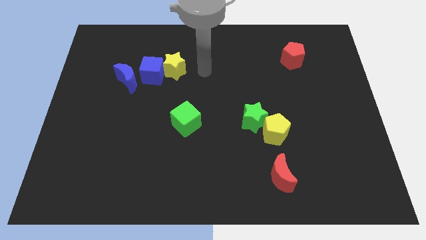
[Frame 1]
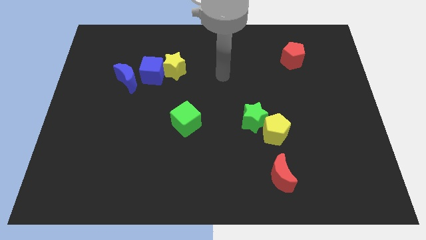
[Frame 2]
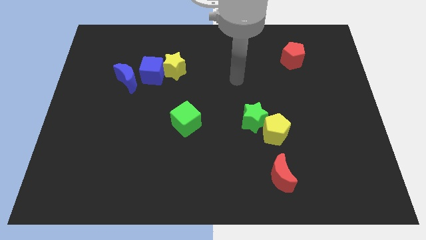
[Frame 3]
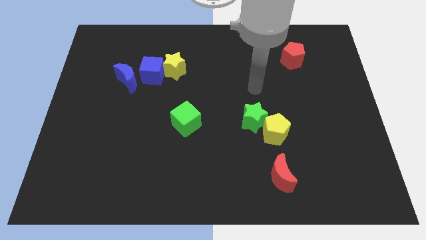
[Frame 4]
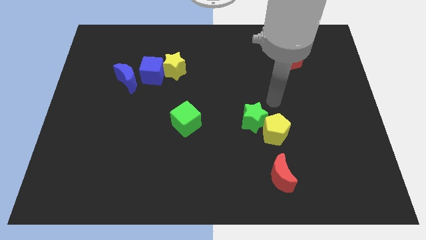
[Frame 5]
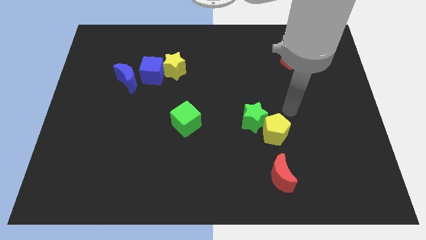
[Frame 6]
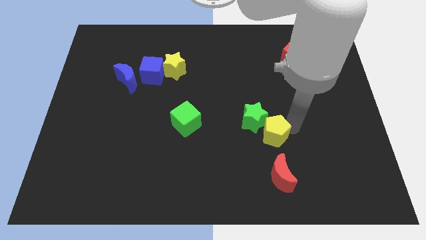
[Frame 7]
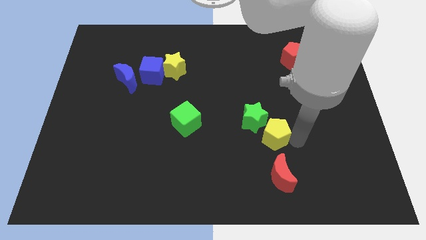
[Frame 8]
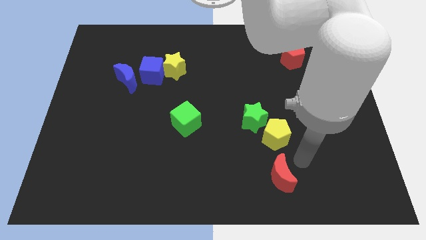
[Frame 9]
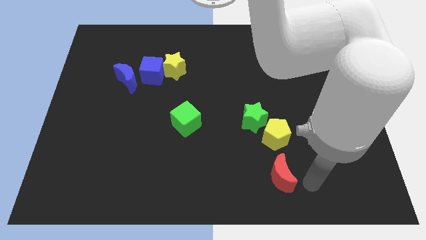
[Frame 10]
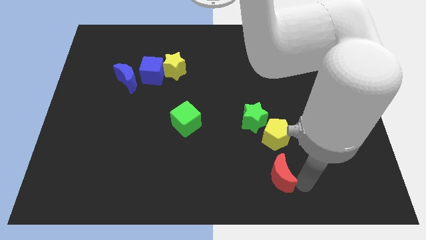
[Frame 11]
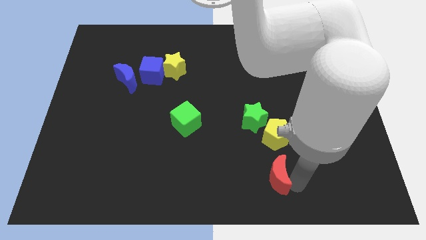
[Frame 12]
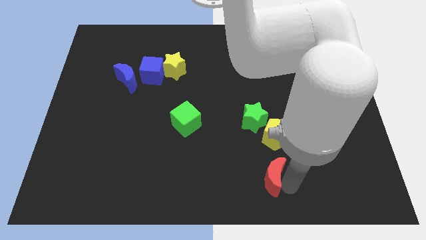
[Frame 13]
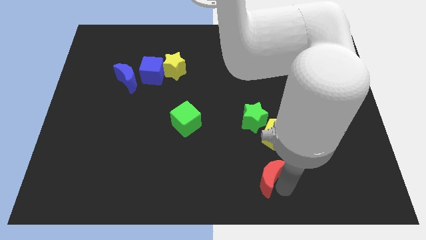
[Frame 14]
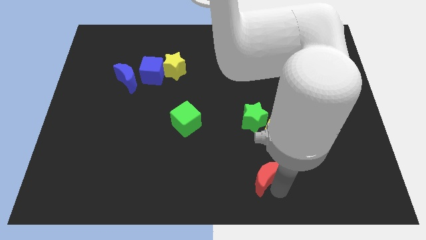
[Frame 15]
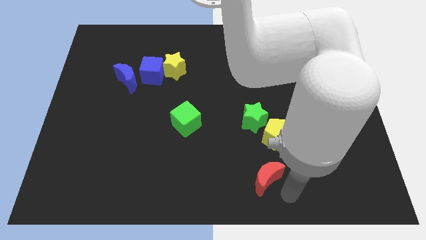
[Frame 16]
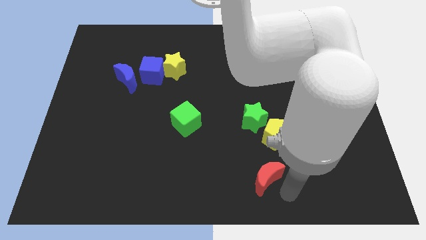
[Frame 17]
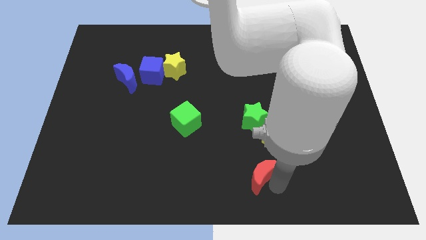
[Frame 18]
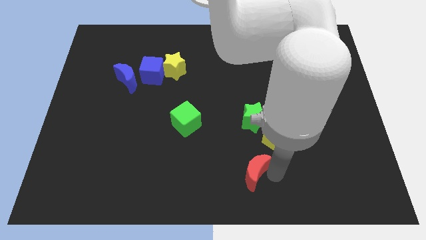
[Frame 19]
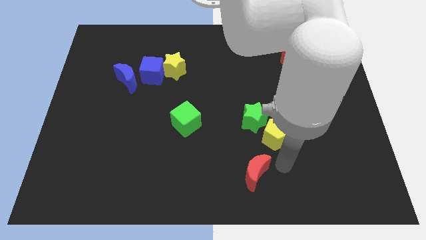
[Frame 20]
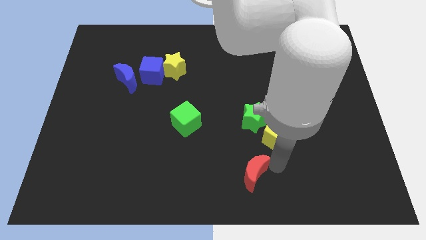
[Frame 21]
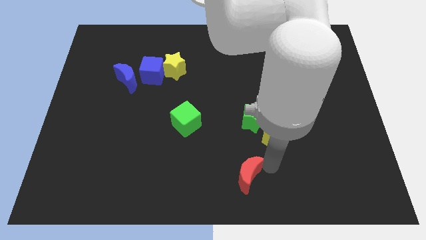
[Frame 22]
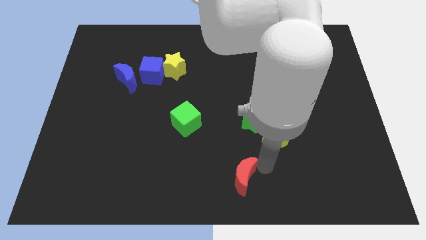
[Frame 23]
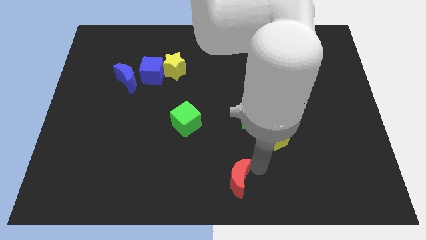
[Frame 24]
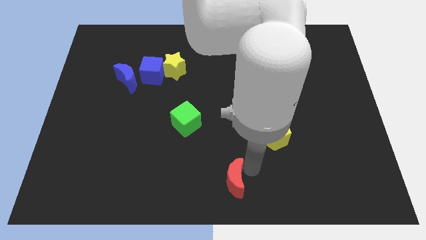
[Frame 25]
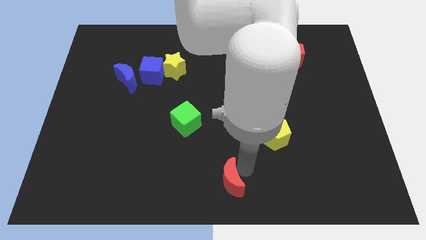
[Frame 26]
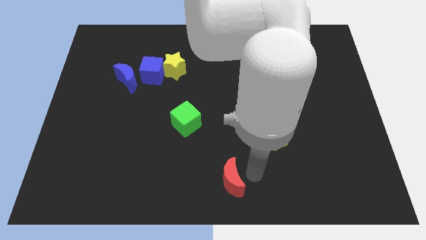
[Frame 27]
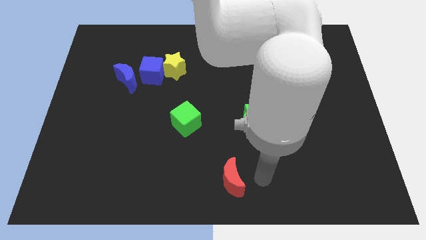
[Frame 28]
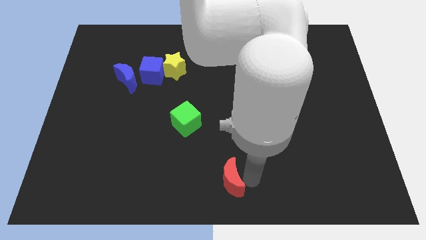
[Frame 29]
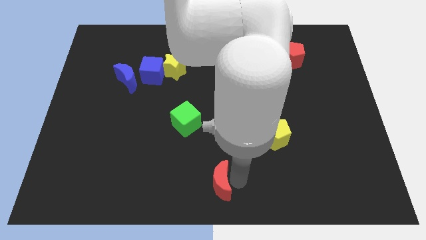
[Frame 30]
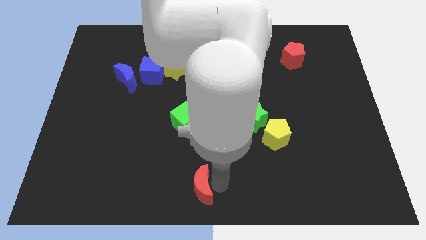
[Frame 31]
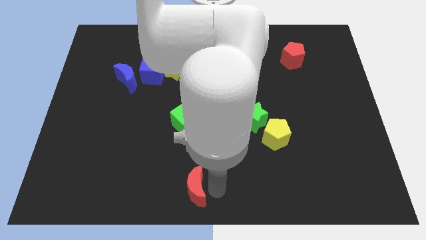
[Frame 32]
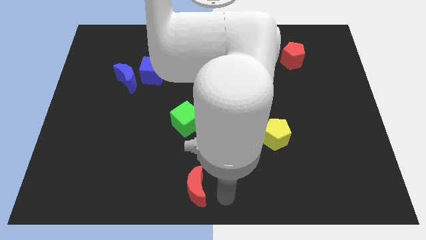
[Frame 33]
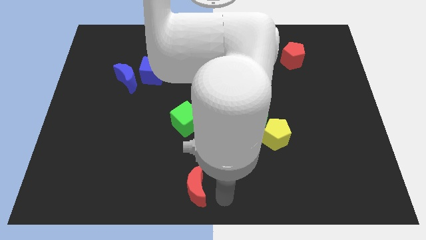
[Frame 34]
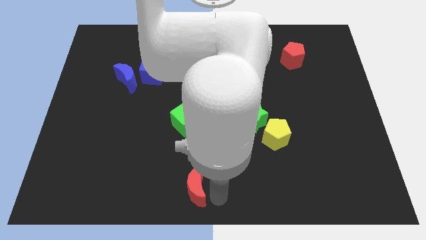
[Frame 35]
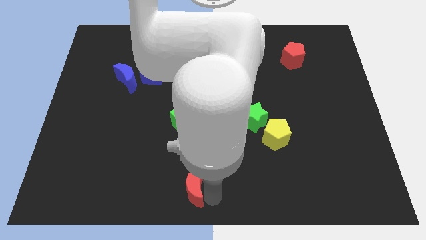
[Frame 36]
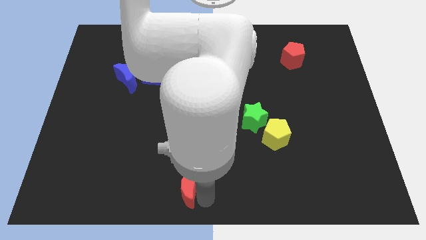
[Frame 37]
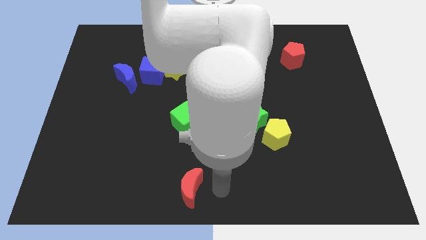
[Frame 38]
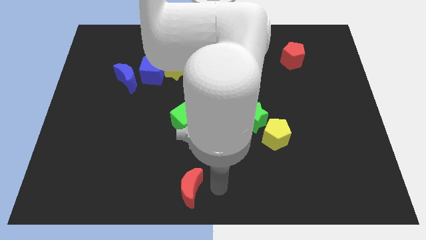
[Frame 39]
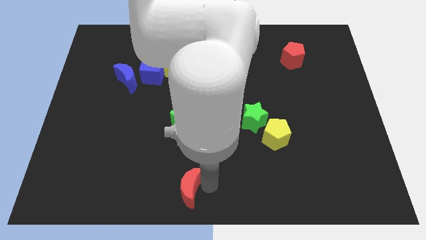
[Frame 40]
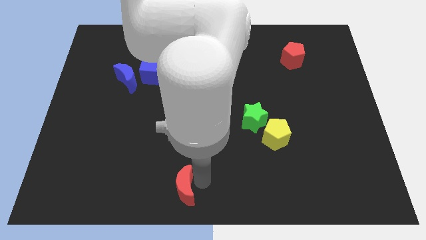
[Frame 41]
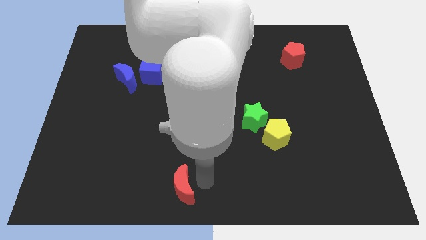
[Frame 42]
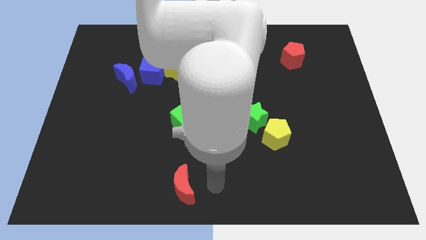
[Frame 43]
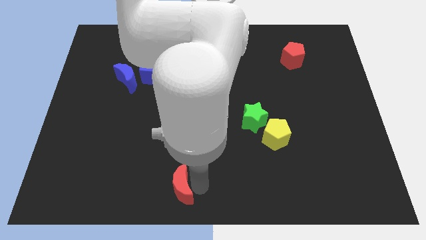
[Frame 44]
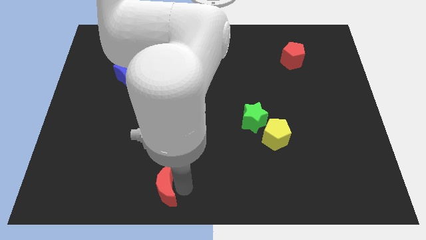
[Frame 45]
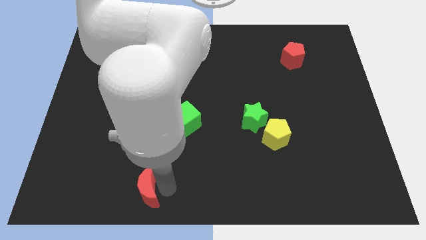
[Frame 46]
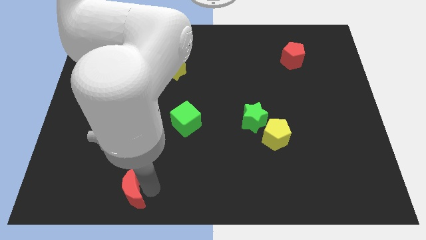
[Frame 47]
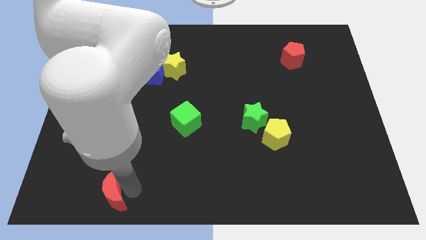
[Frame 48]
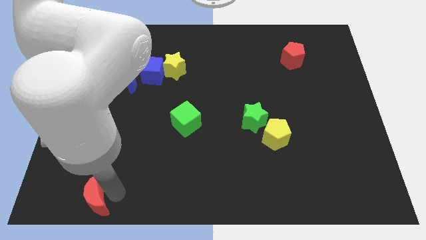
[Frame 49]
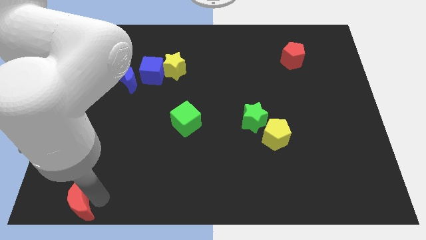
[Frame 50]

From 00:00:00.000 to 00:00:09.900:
slide the red moon to the bottom left

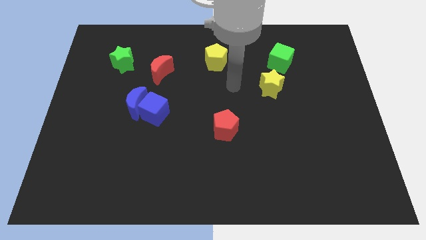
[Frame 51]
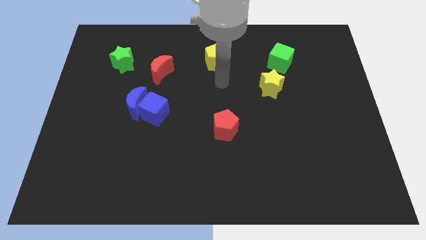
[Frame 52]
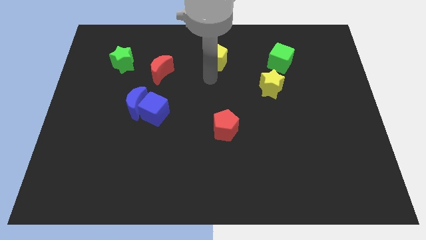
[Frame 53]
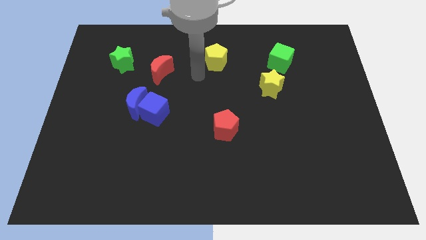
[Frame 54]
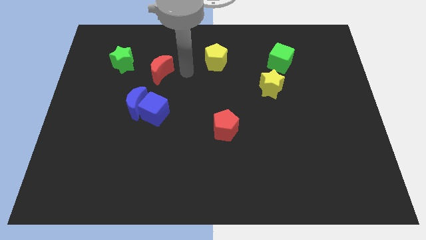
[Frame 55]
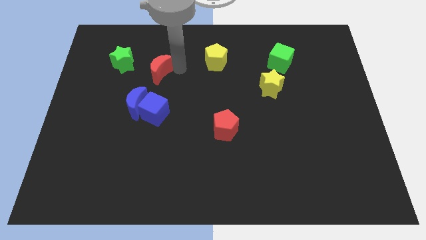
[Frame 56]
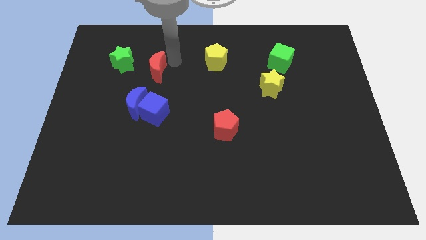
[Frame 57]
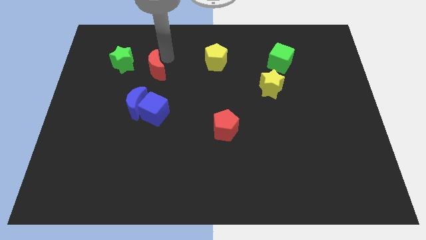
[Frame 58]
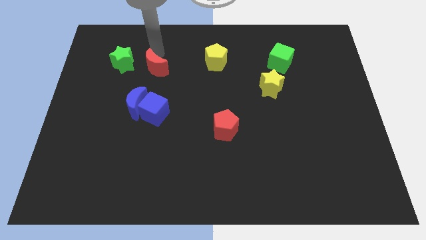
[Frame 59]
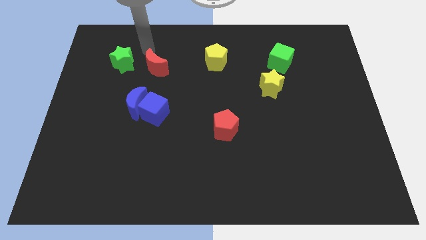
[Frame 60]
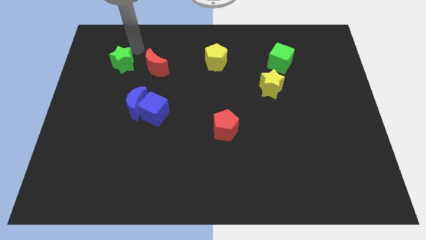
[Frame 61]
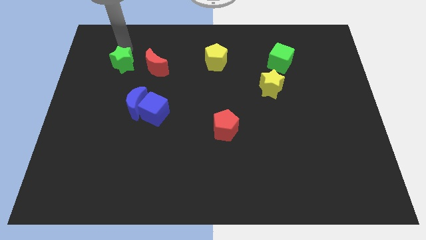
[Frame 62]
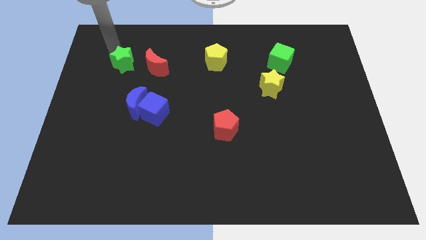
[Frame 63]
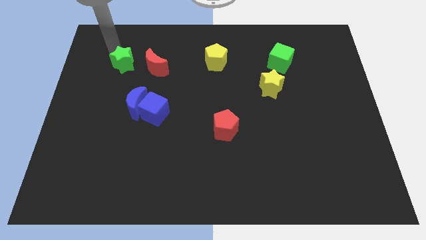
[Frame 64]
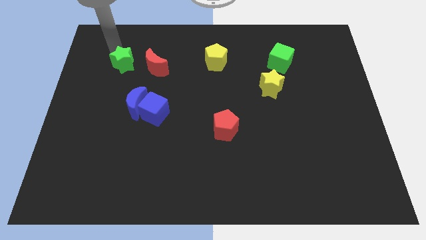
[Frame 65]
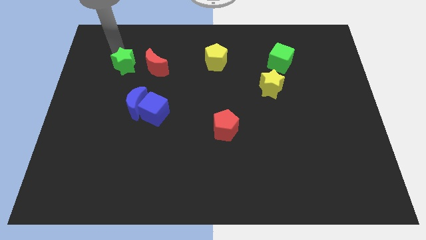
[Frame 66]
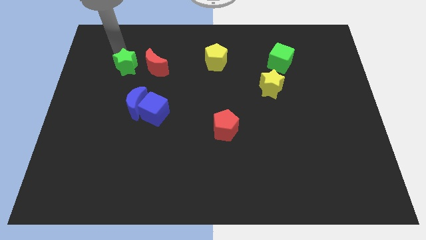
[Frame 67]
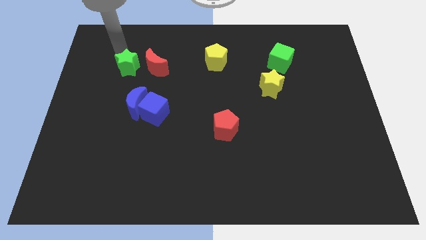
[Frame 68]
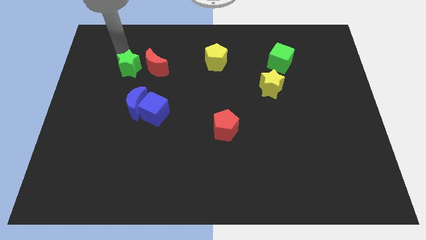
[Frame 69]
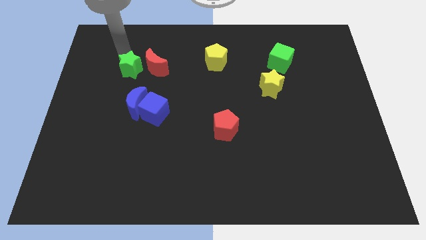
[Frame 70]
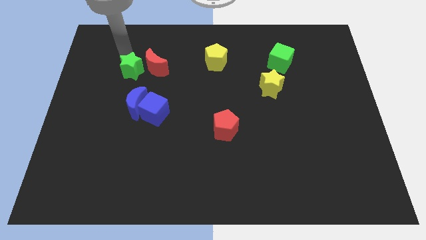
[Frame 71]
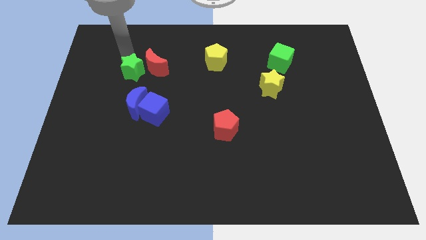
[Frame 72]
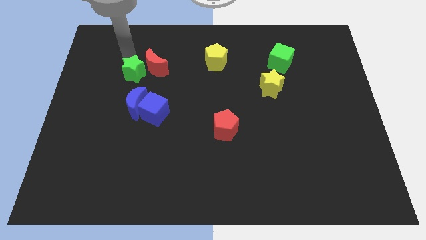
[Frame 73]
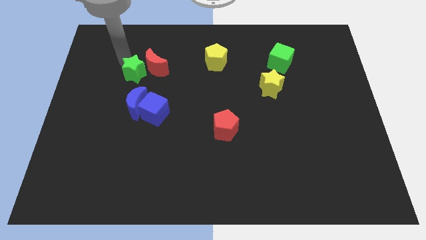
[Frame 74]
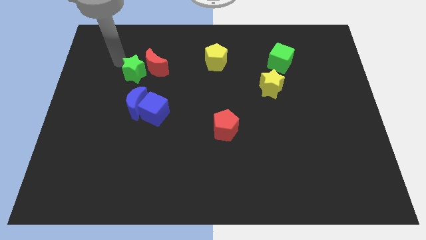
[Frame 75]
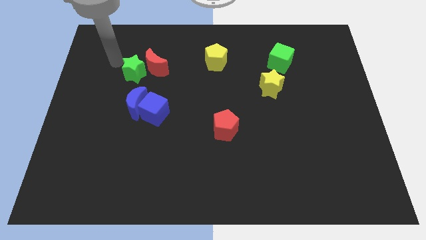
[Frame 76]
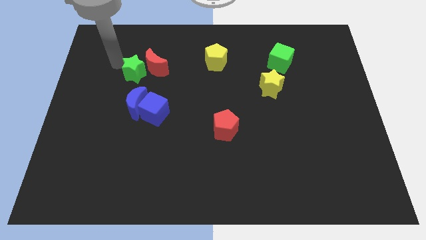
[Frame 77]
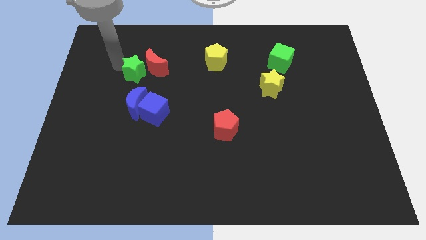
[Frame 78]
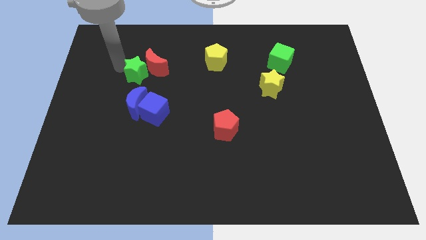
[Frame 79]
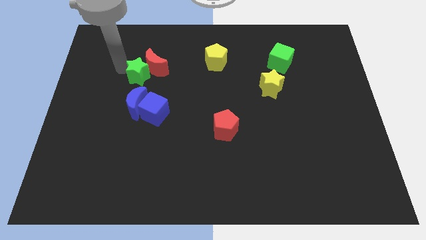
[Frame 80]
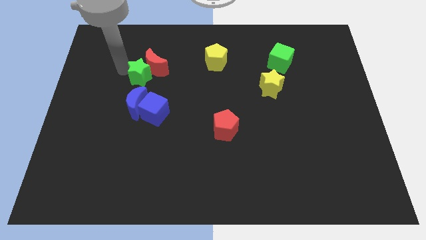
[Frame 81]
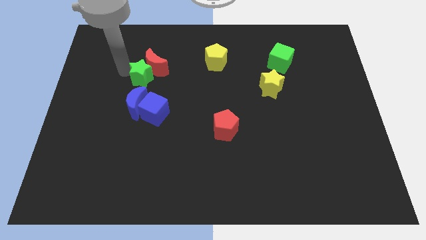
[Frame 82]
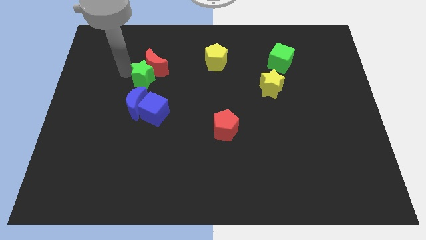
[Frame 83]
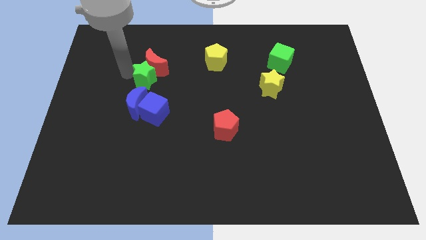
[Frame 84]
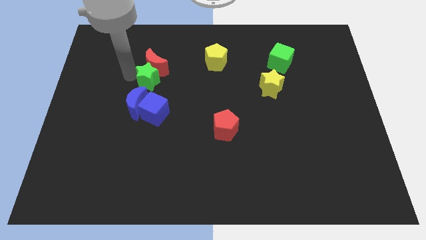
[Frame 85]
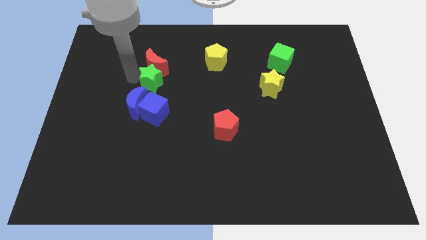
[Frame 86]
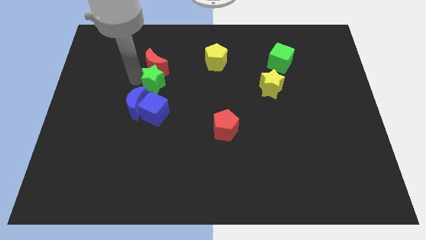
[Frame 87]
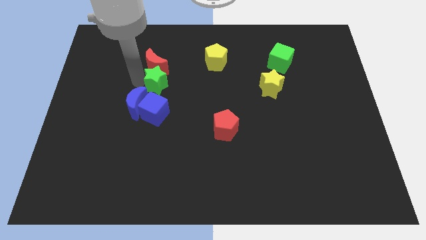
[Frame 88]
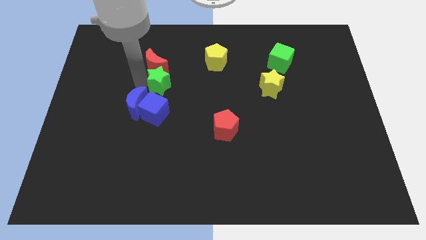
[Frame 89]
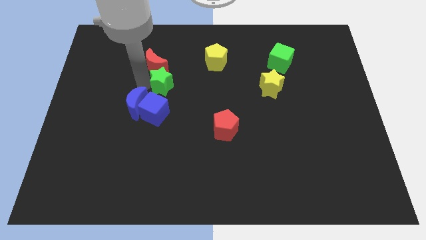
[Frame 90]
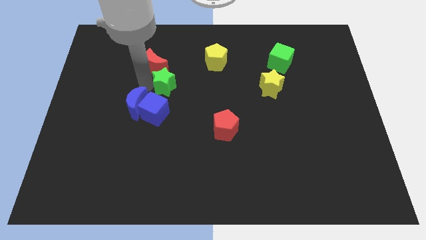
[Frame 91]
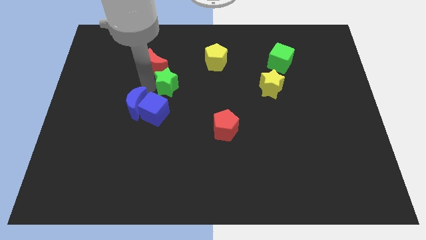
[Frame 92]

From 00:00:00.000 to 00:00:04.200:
put the green star to the center
